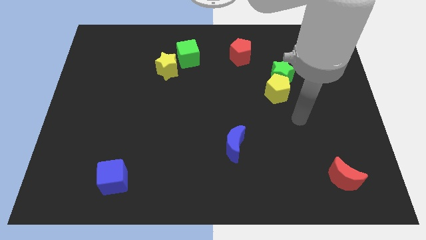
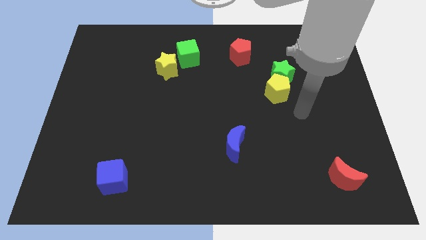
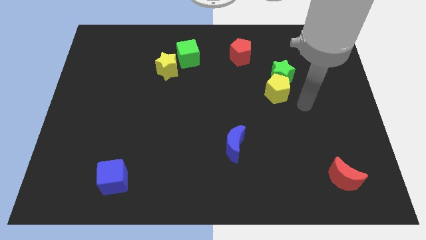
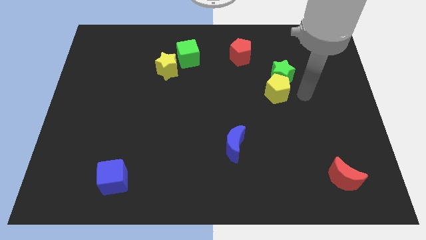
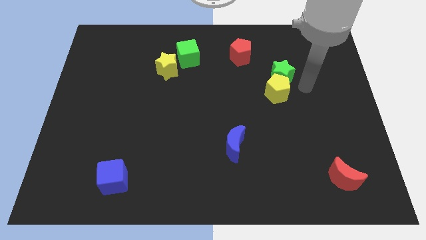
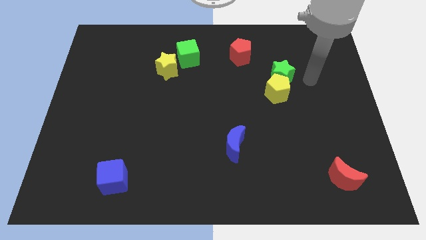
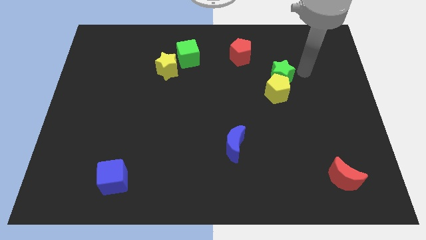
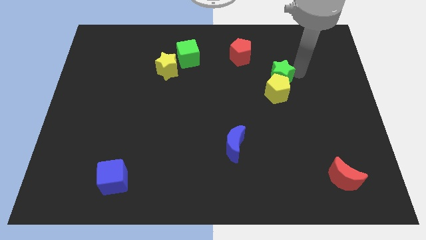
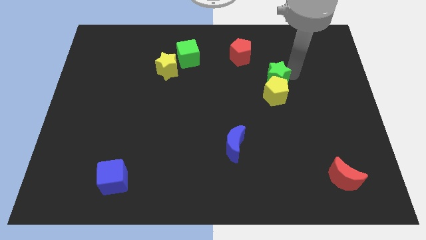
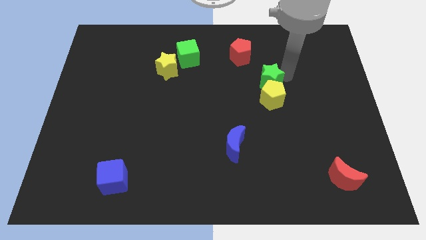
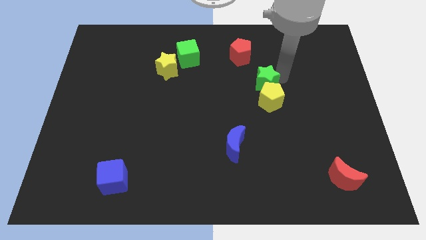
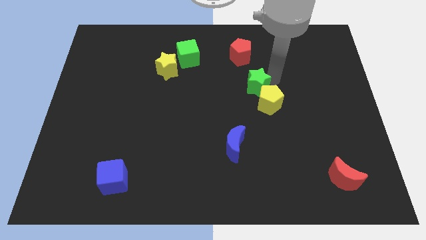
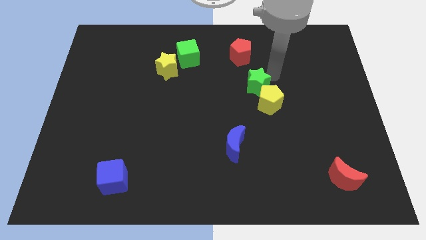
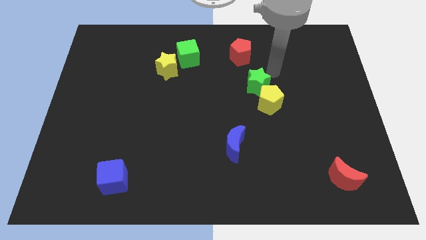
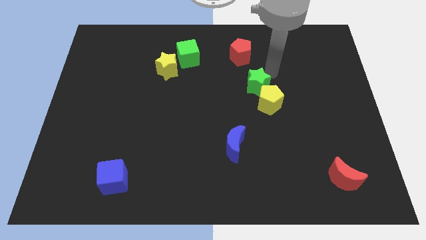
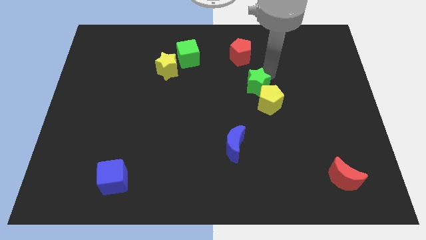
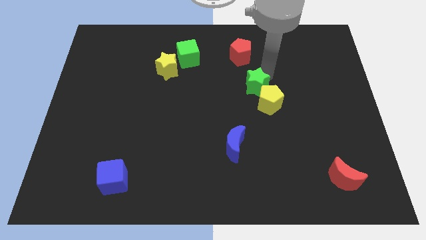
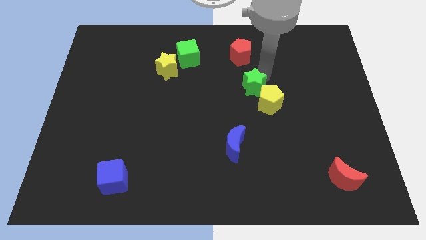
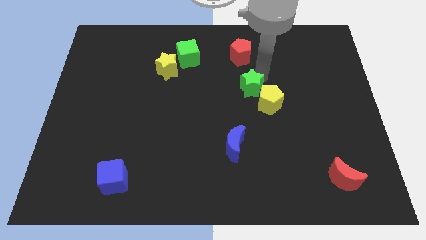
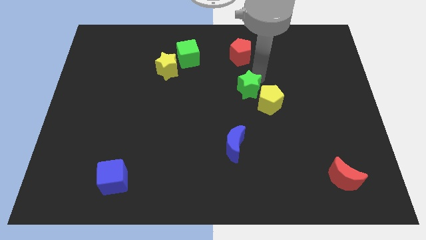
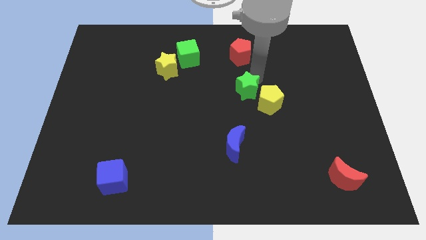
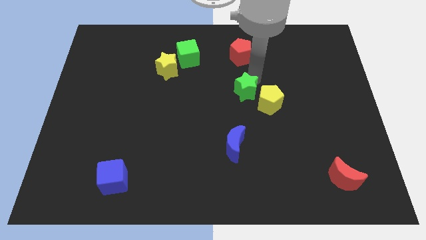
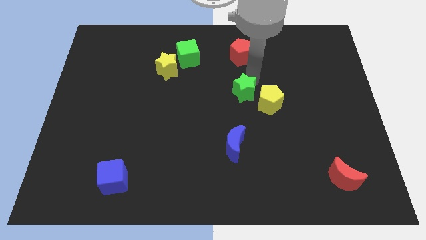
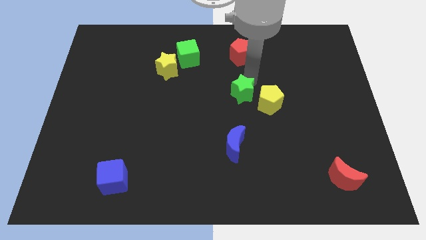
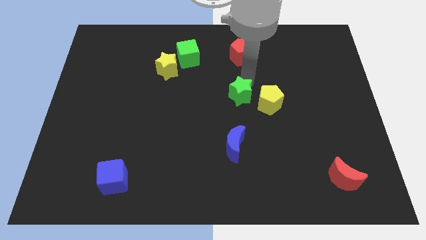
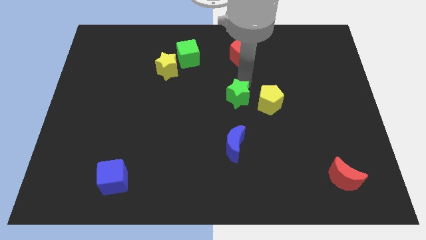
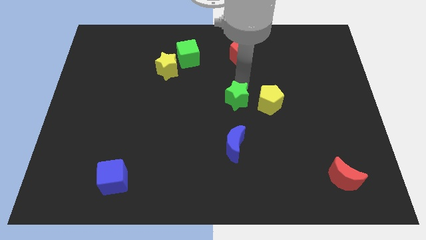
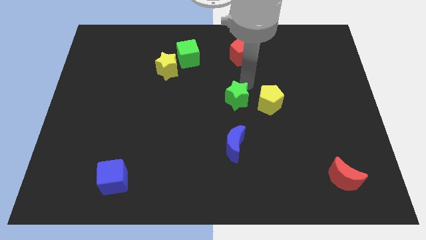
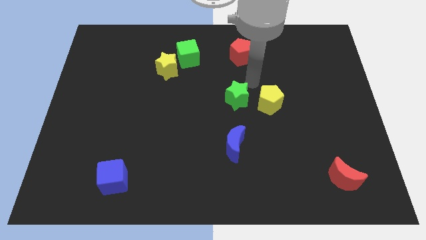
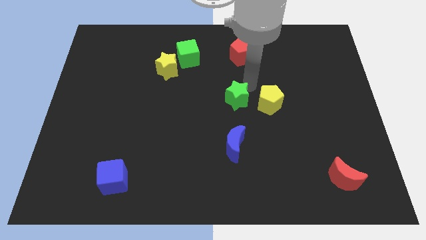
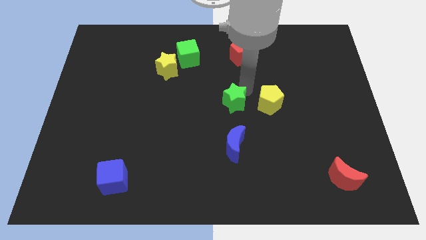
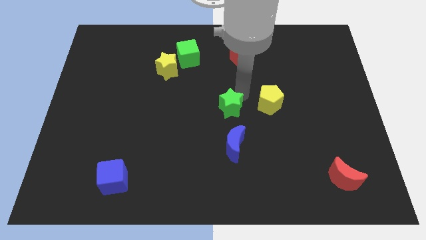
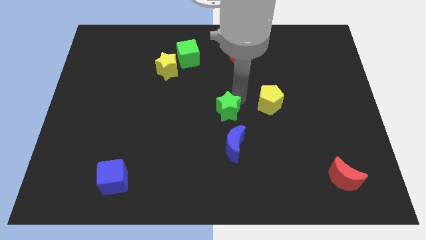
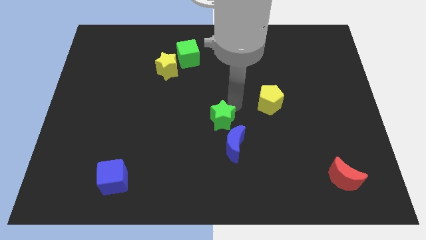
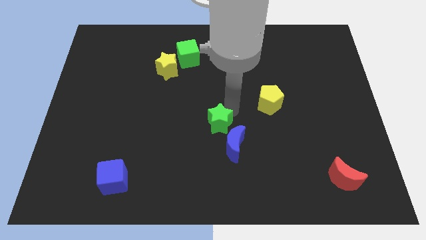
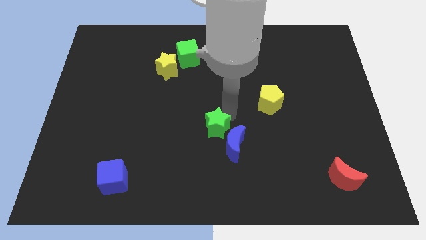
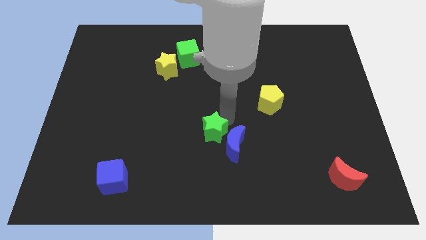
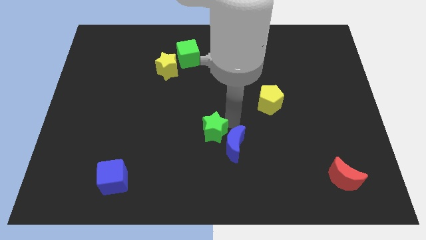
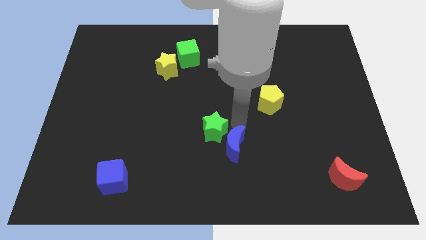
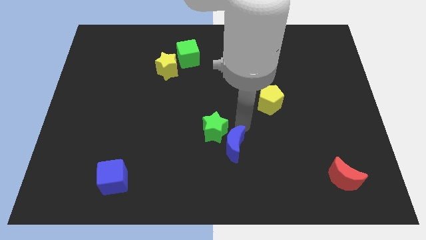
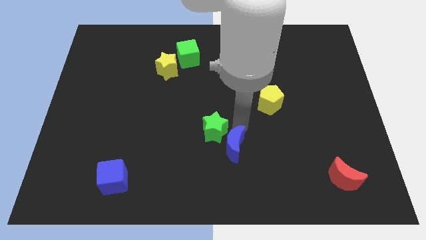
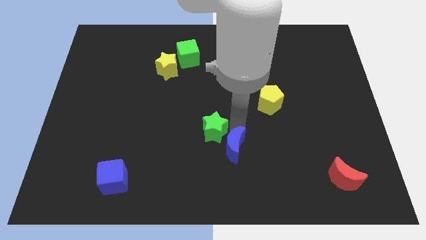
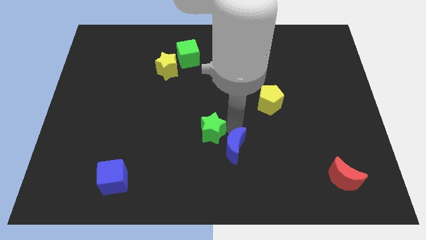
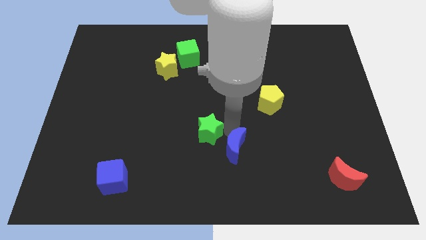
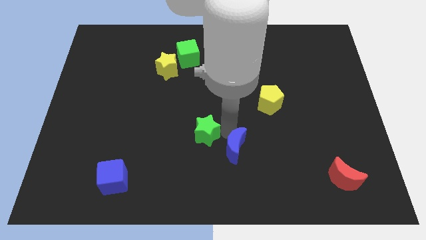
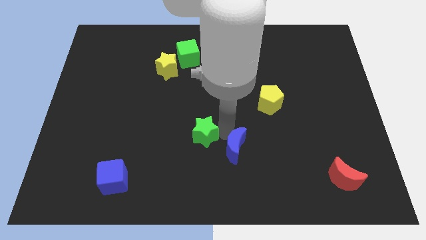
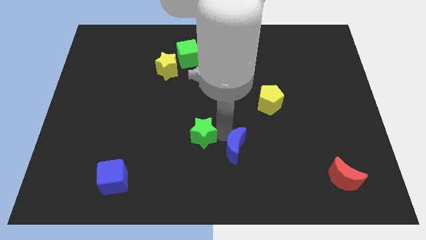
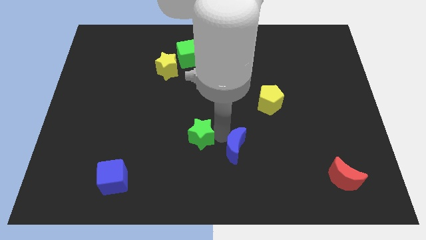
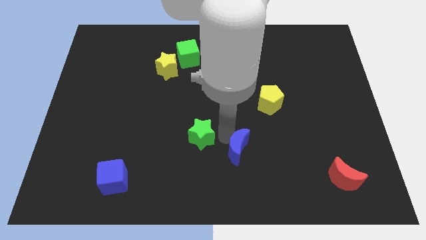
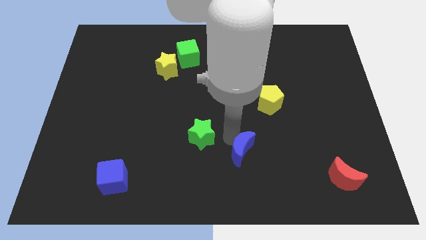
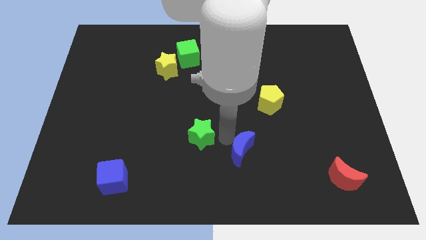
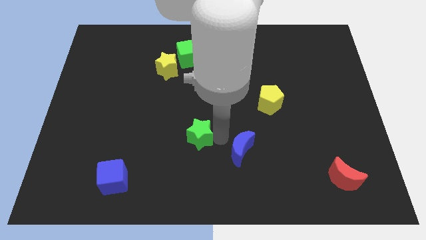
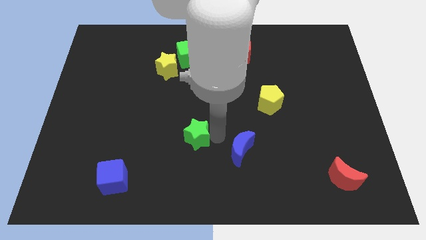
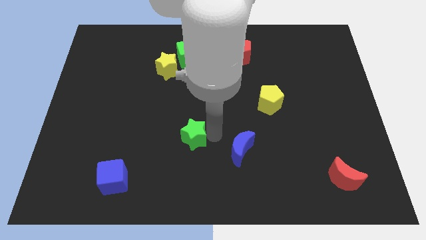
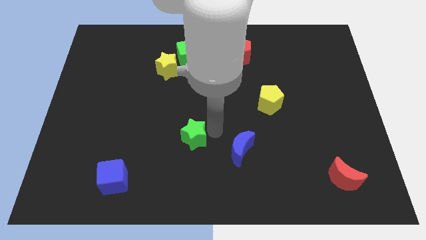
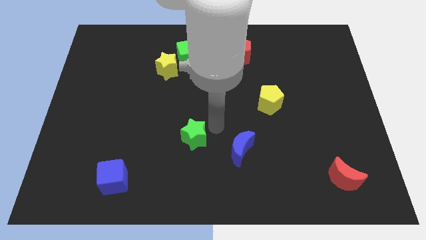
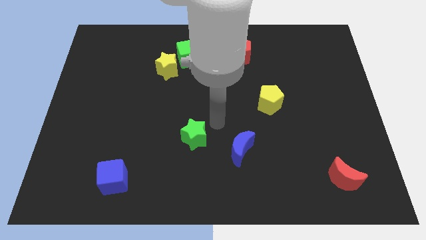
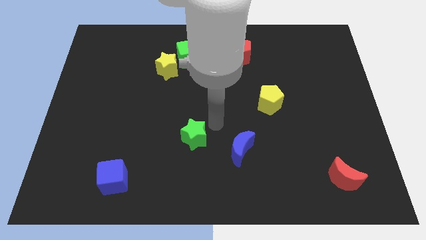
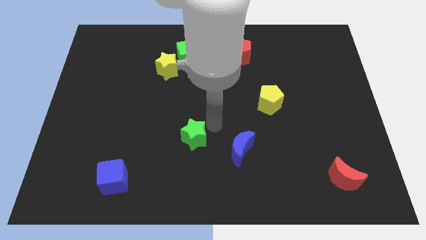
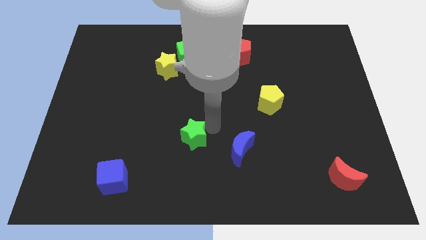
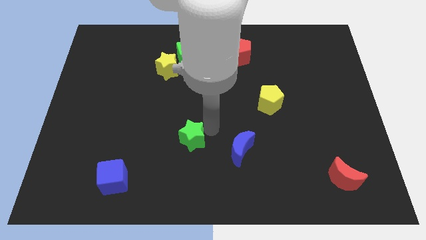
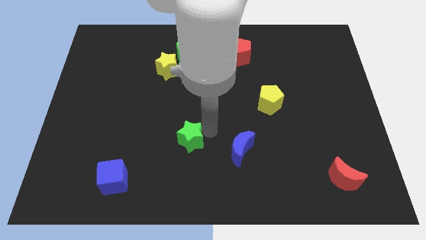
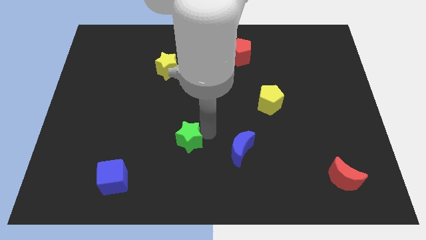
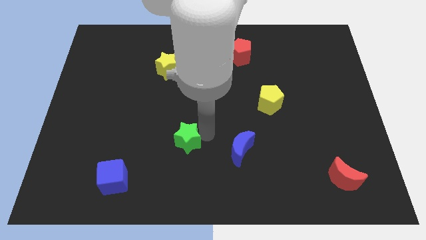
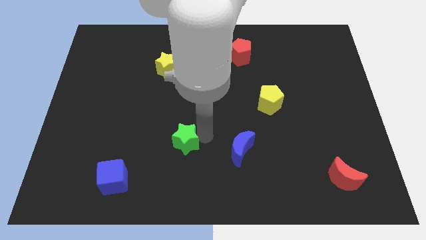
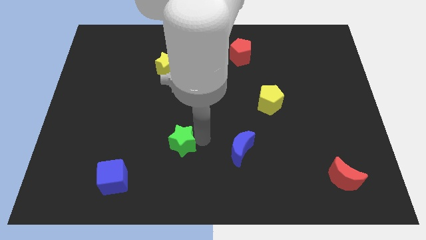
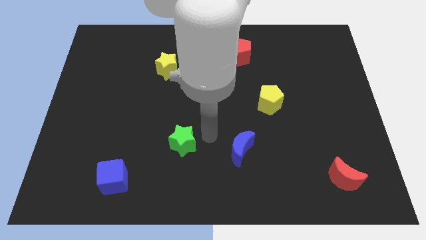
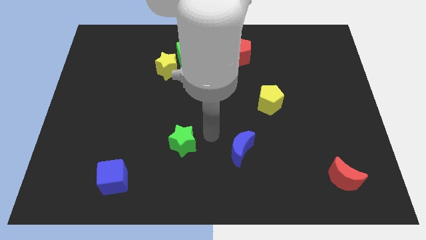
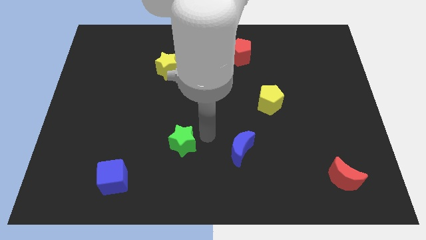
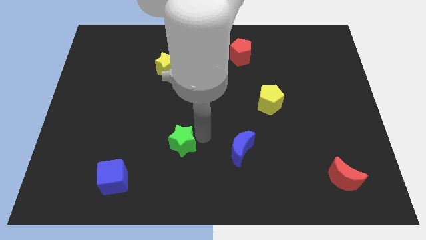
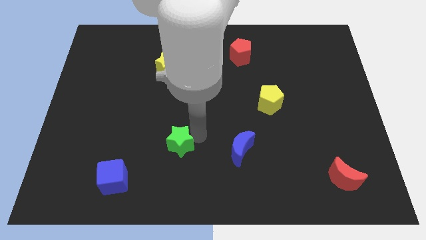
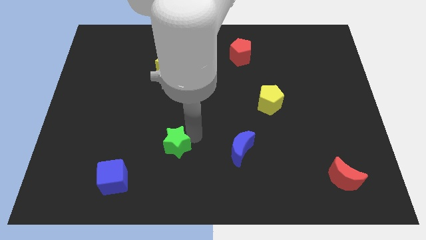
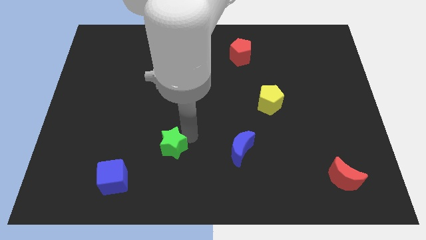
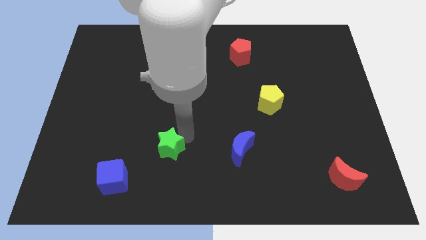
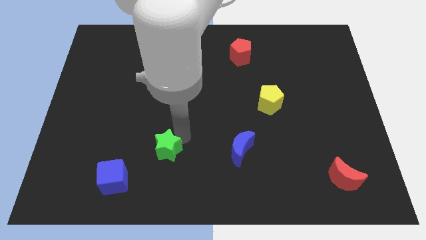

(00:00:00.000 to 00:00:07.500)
push the green star to the top right of the blue cube

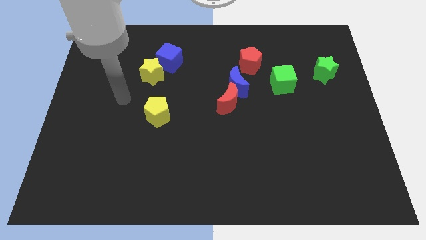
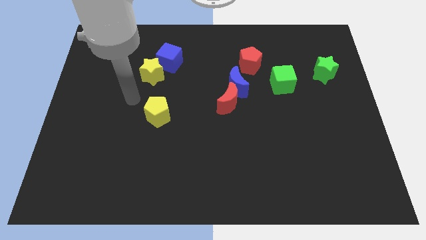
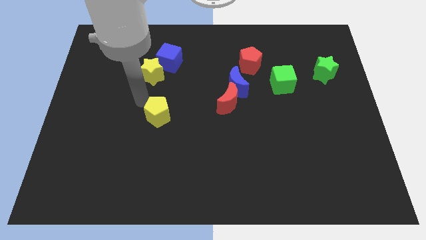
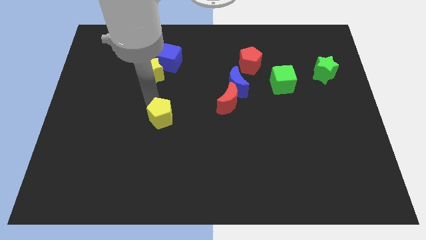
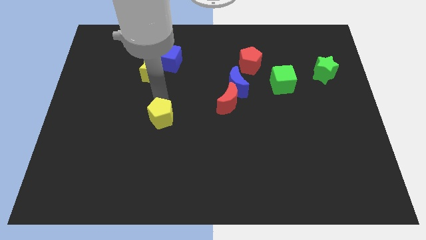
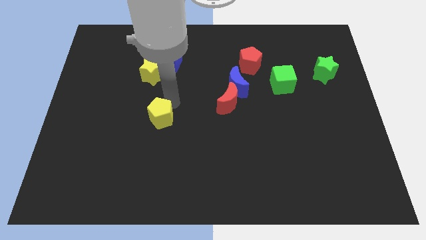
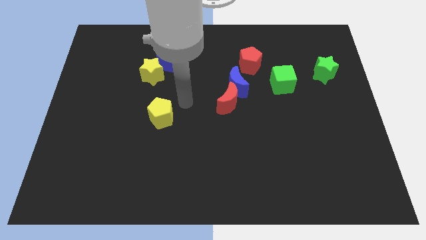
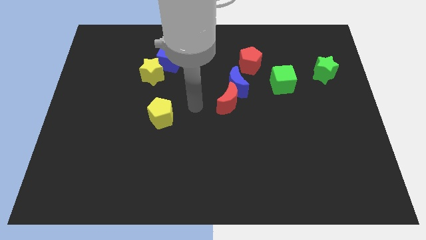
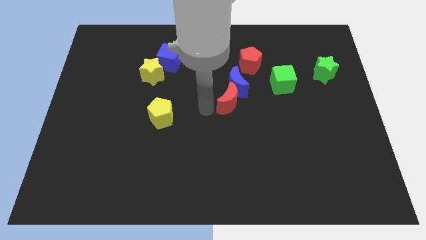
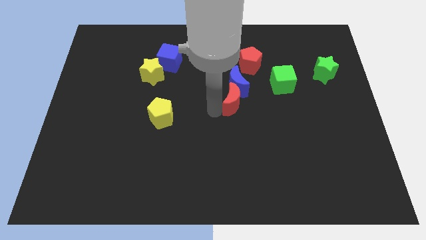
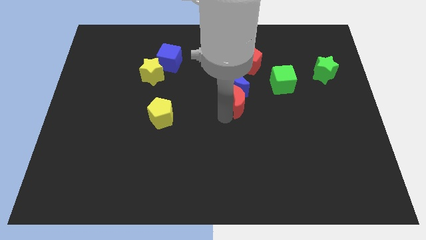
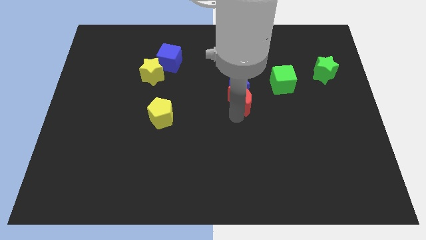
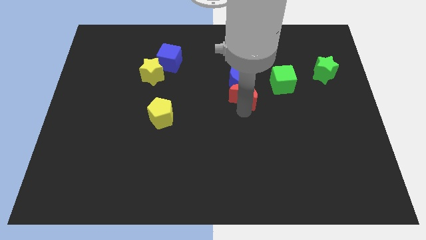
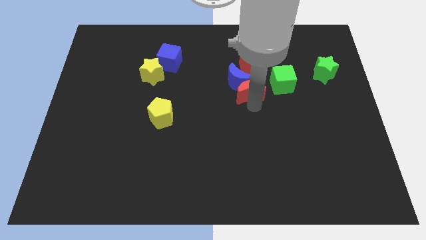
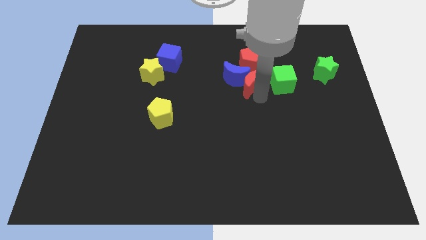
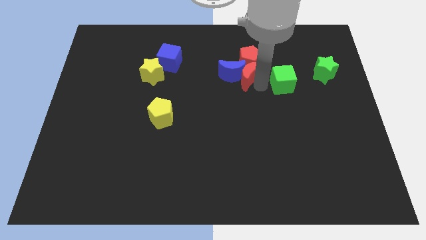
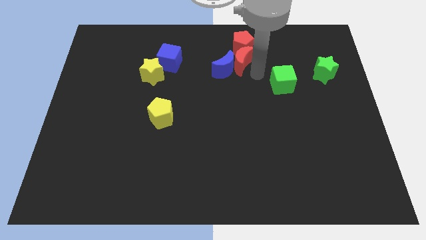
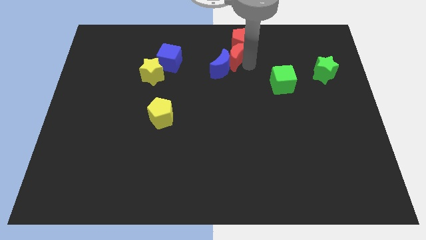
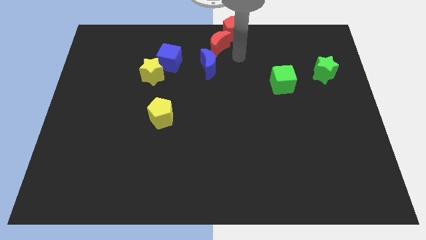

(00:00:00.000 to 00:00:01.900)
slide the blue moon to the right of the yellow star
